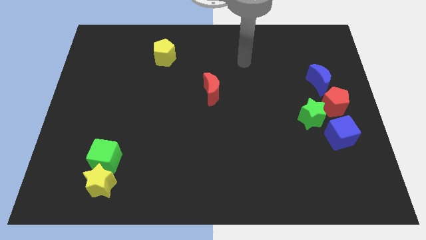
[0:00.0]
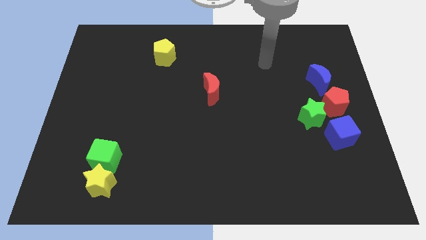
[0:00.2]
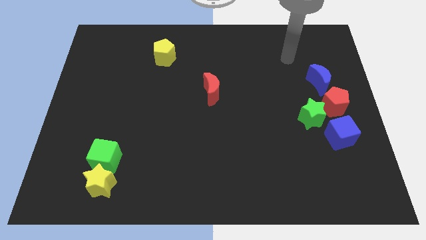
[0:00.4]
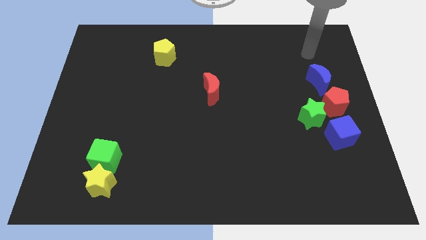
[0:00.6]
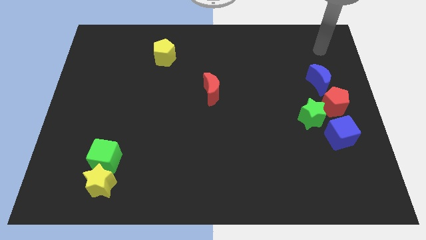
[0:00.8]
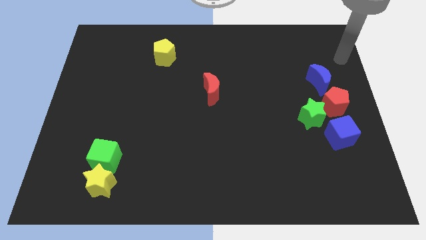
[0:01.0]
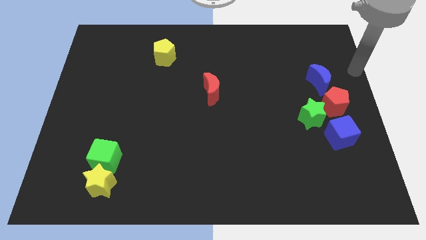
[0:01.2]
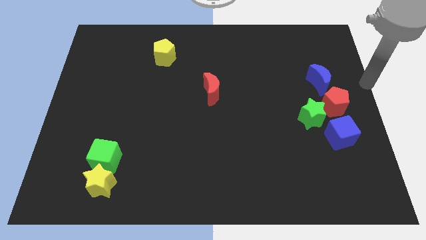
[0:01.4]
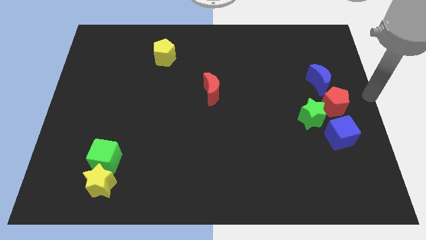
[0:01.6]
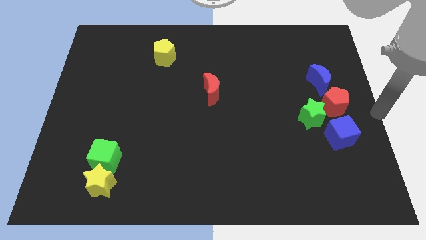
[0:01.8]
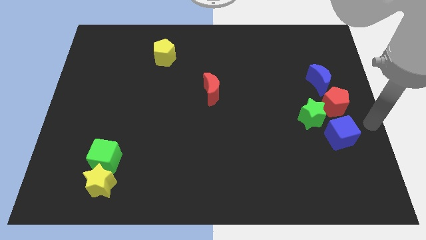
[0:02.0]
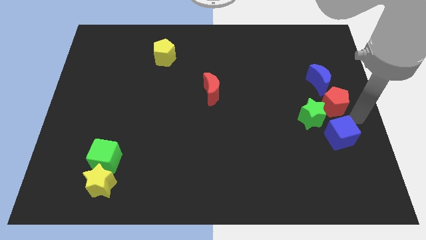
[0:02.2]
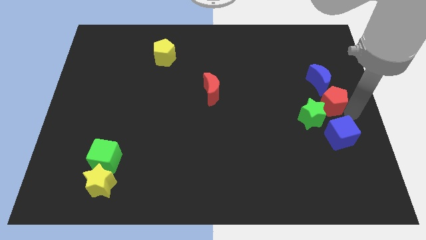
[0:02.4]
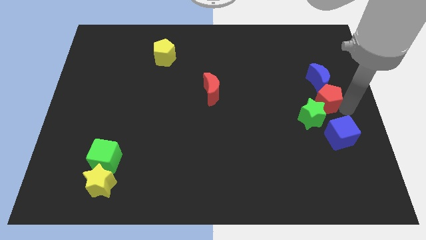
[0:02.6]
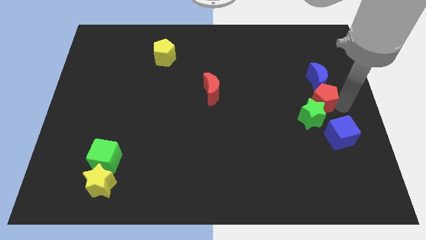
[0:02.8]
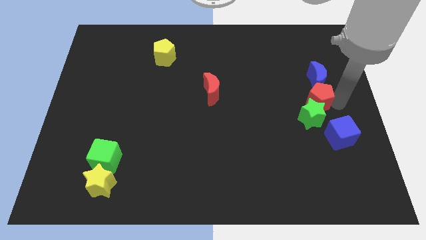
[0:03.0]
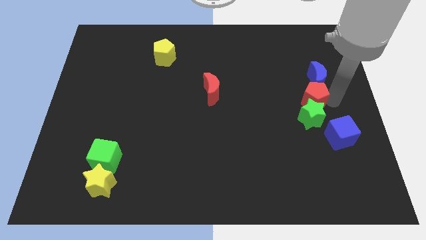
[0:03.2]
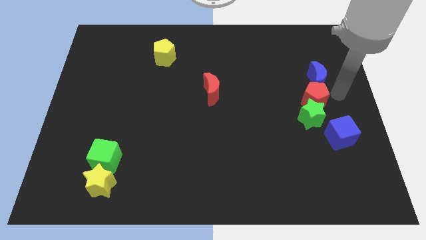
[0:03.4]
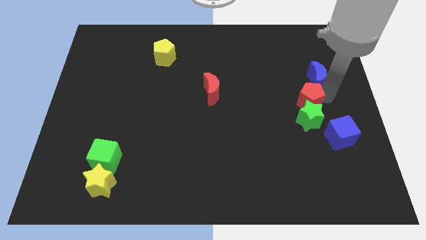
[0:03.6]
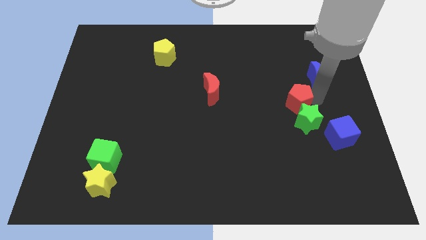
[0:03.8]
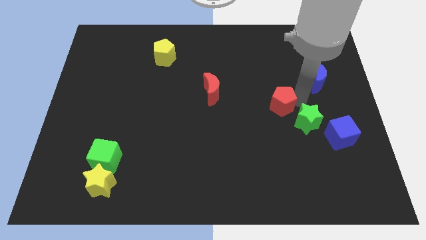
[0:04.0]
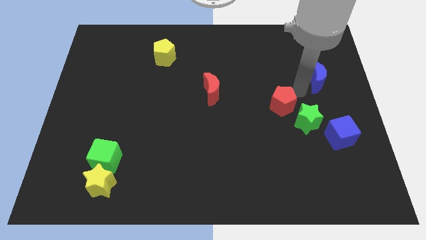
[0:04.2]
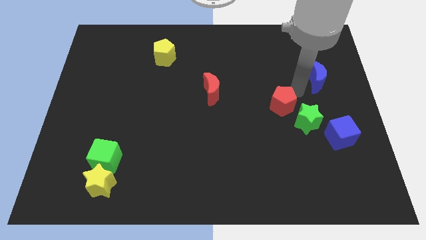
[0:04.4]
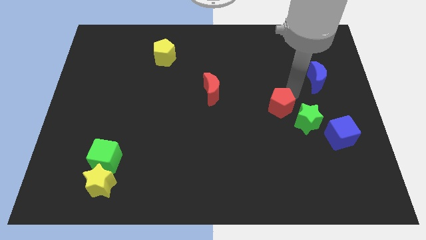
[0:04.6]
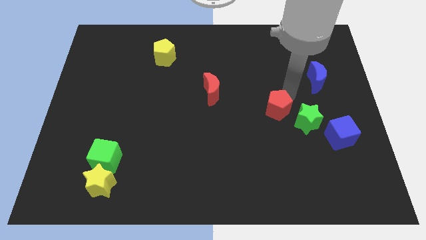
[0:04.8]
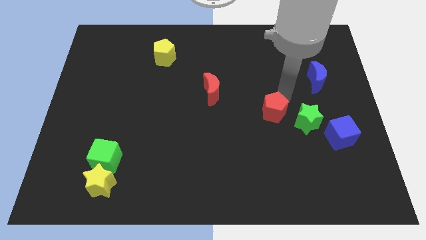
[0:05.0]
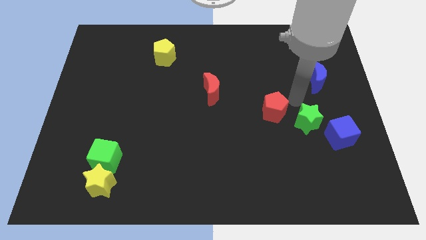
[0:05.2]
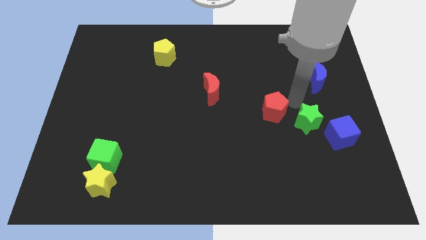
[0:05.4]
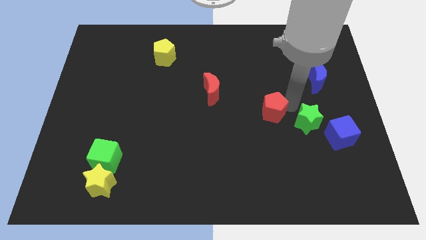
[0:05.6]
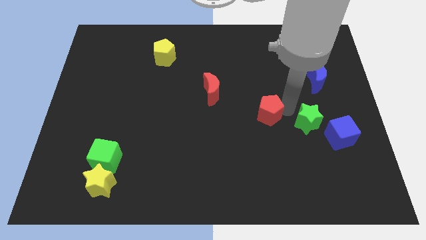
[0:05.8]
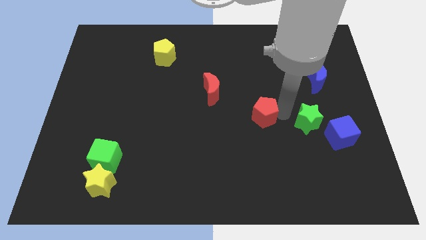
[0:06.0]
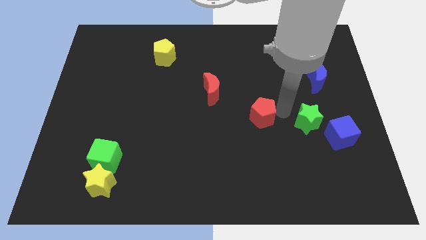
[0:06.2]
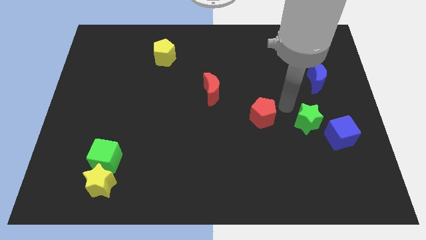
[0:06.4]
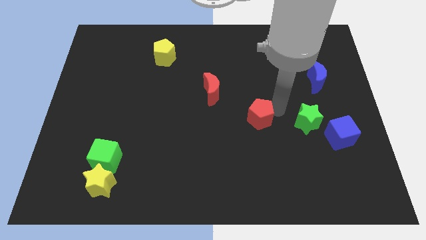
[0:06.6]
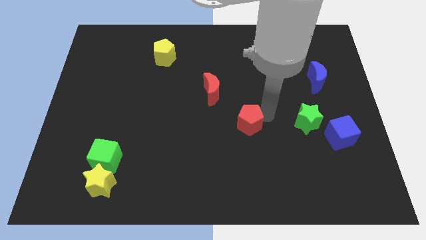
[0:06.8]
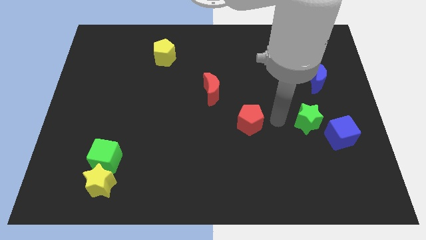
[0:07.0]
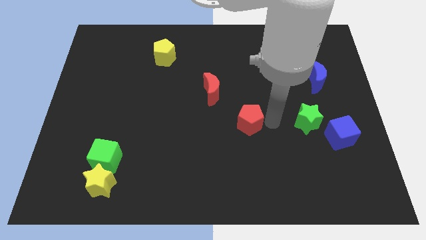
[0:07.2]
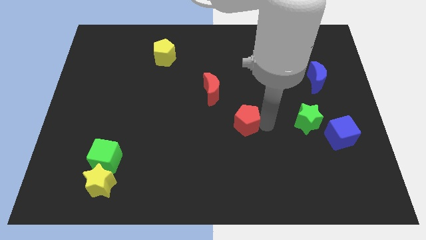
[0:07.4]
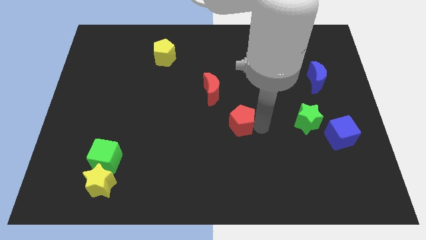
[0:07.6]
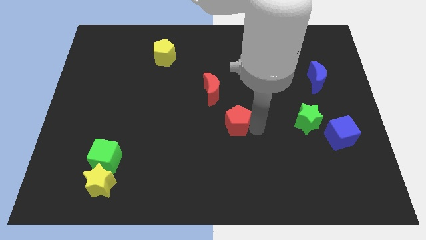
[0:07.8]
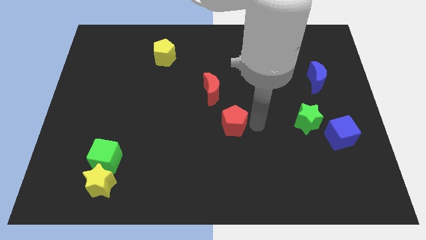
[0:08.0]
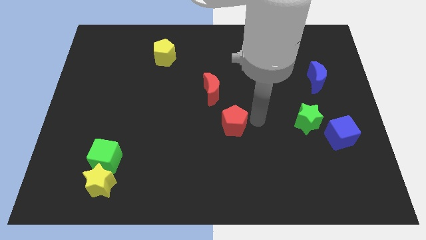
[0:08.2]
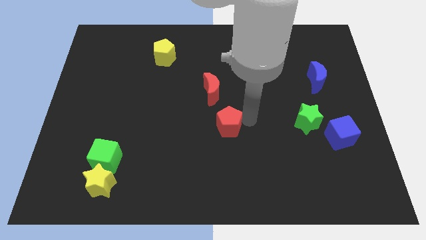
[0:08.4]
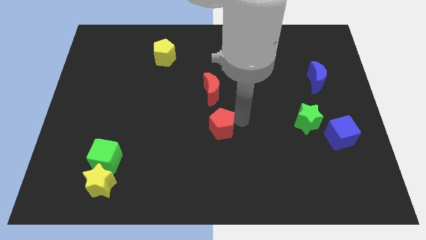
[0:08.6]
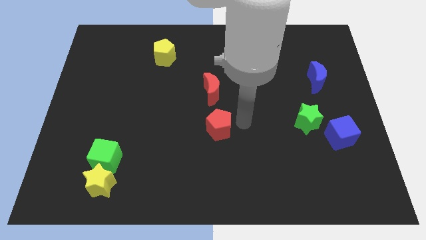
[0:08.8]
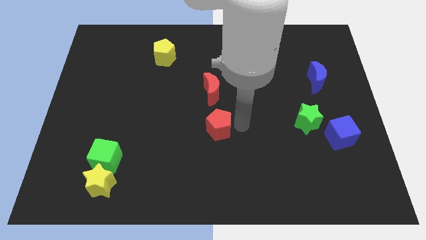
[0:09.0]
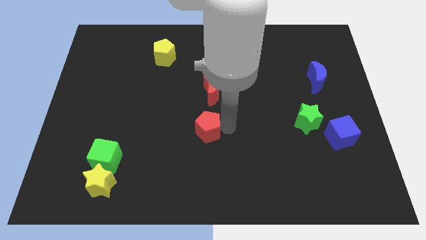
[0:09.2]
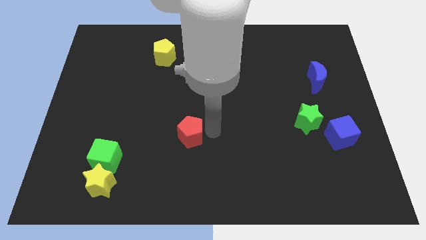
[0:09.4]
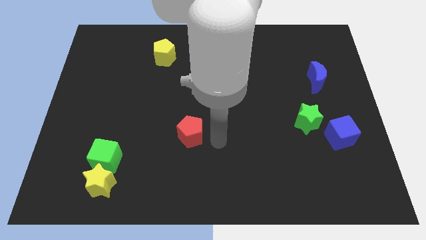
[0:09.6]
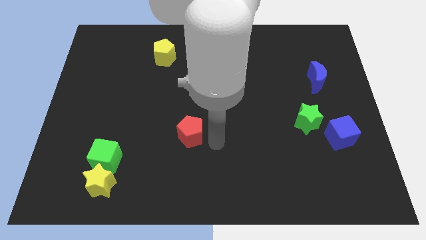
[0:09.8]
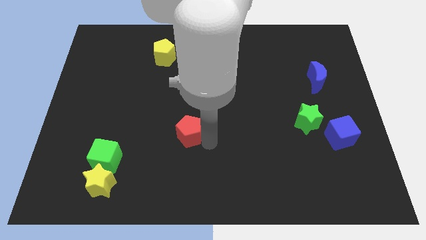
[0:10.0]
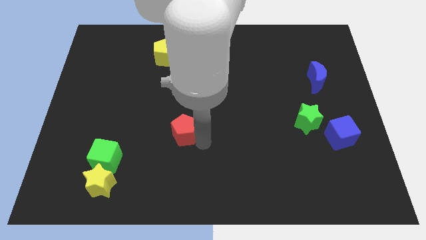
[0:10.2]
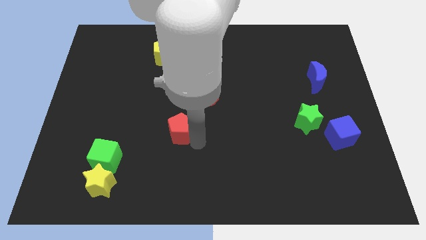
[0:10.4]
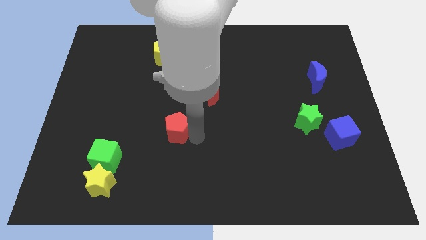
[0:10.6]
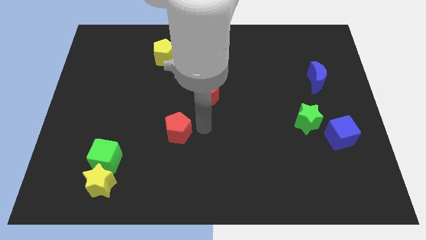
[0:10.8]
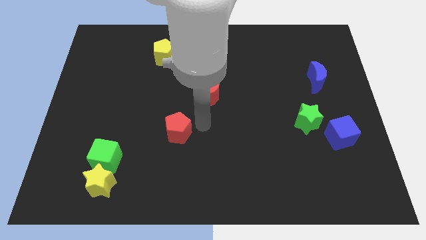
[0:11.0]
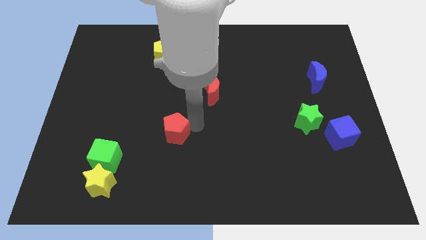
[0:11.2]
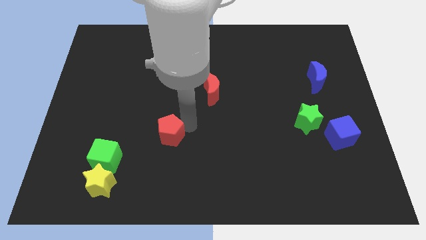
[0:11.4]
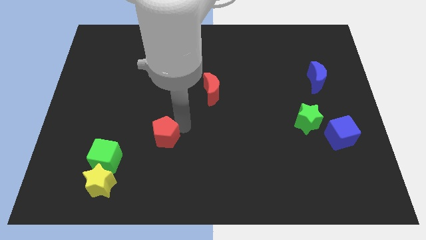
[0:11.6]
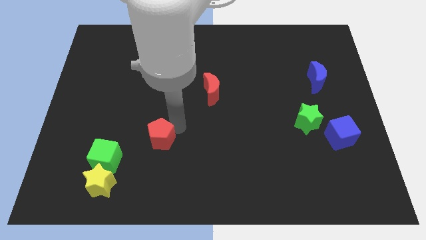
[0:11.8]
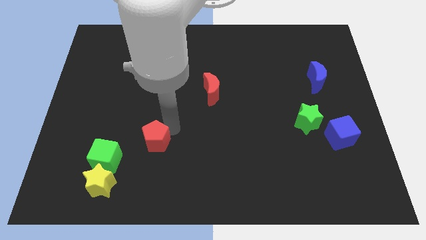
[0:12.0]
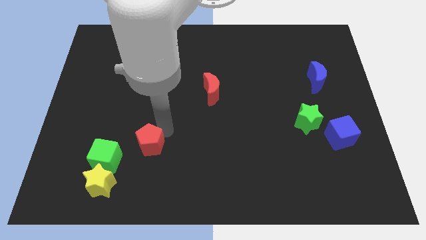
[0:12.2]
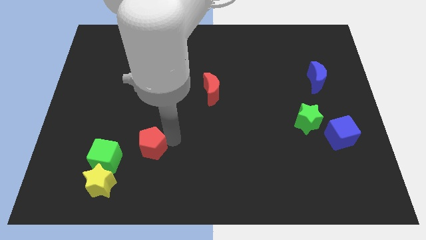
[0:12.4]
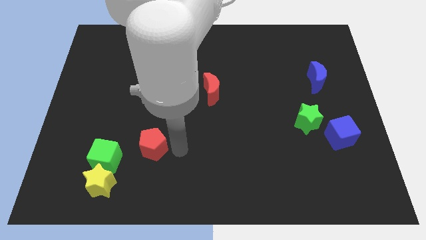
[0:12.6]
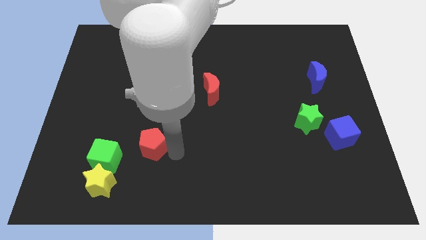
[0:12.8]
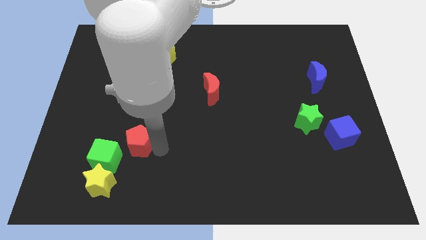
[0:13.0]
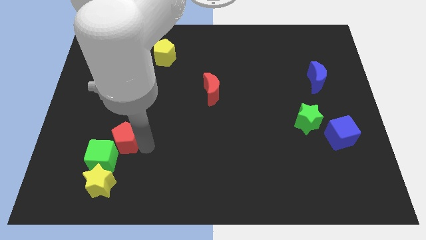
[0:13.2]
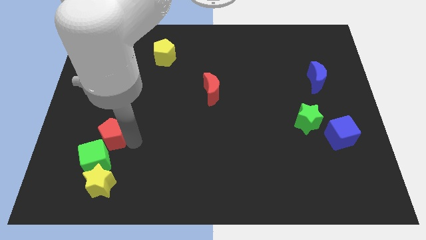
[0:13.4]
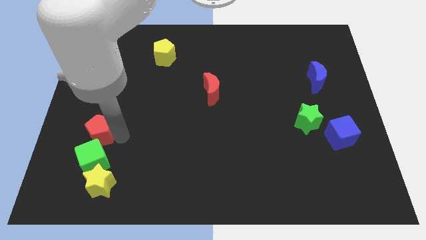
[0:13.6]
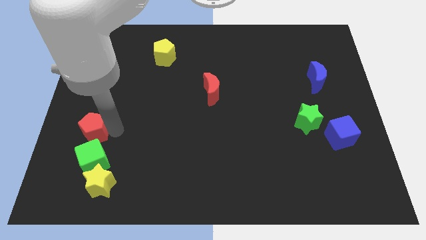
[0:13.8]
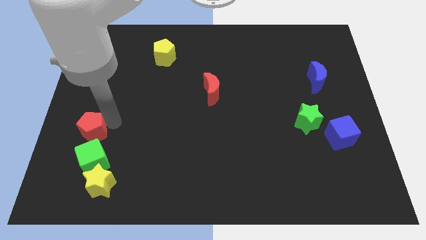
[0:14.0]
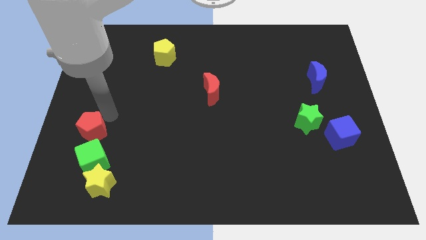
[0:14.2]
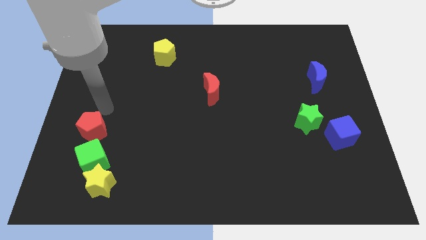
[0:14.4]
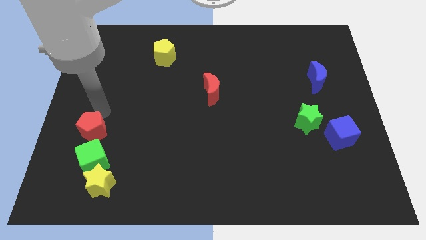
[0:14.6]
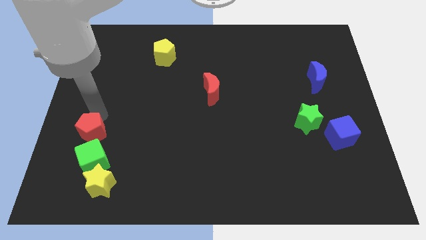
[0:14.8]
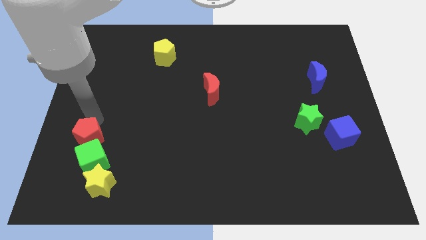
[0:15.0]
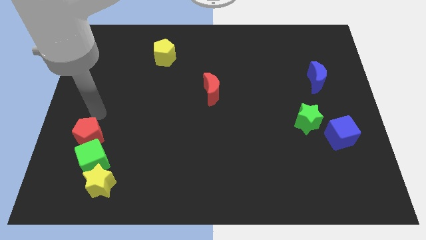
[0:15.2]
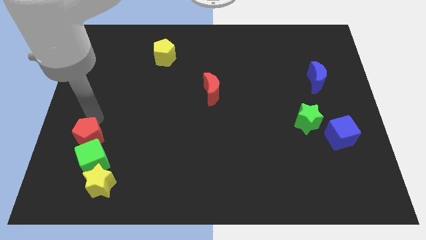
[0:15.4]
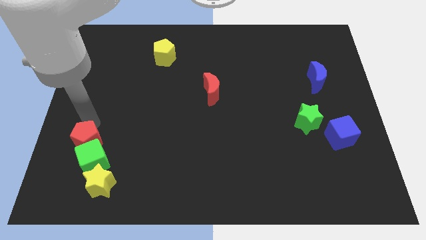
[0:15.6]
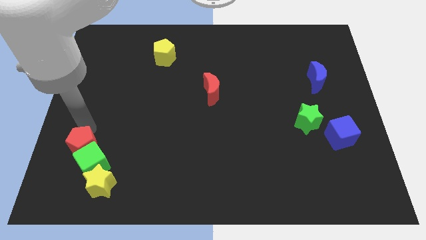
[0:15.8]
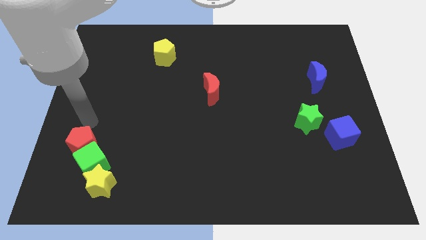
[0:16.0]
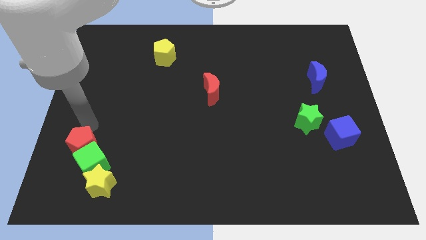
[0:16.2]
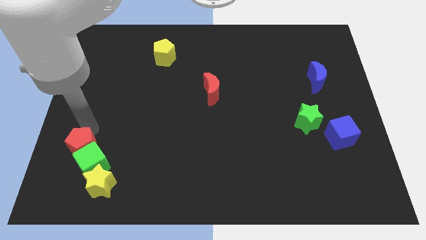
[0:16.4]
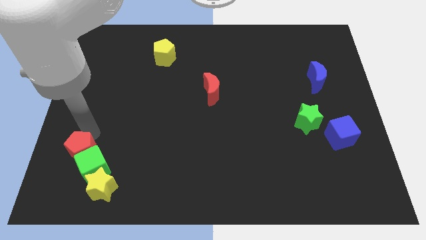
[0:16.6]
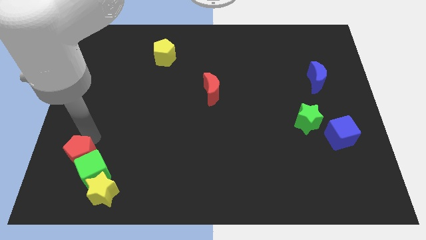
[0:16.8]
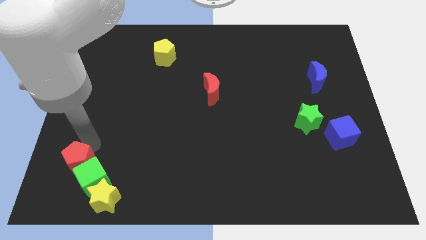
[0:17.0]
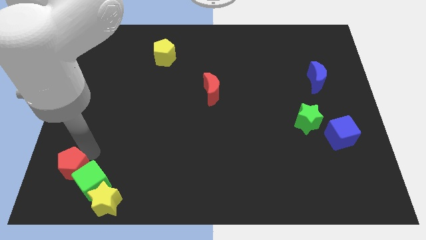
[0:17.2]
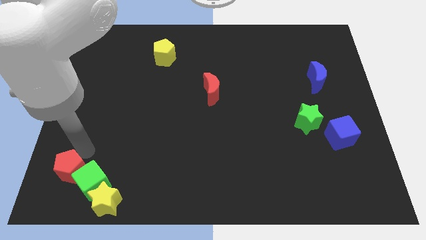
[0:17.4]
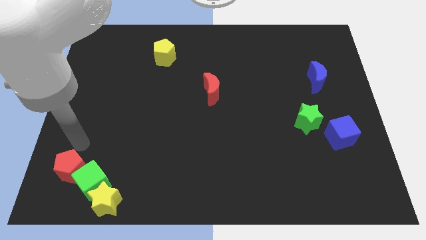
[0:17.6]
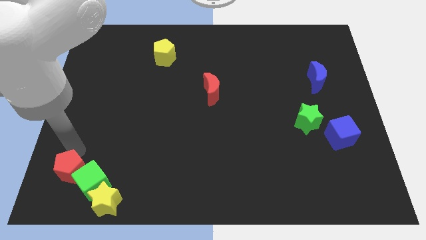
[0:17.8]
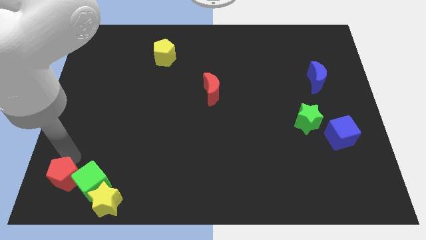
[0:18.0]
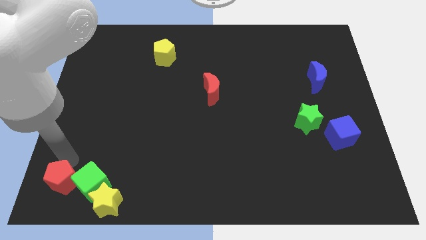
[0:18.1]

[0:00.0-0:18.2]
push the red pentagon to the bottom left side of the green cube
